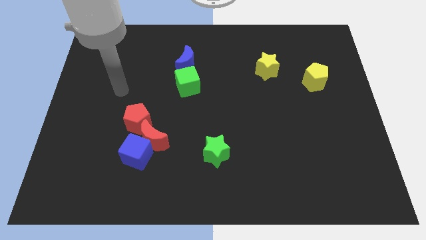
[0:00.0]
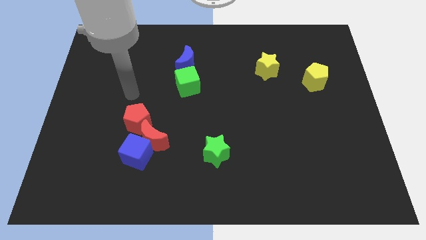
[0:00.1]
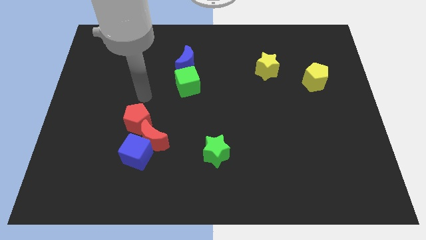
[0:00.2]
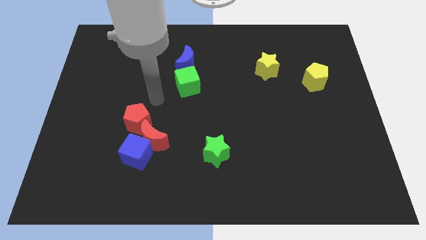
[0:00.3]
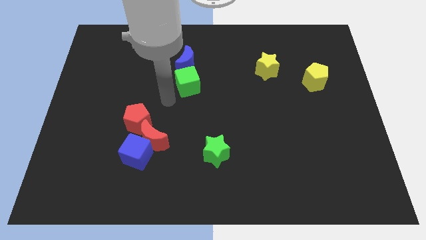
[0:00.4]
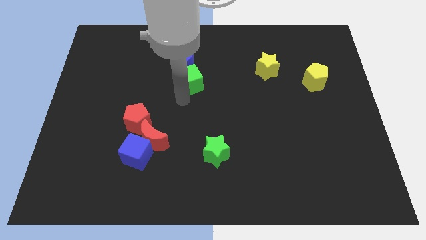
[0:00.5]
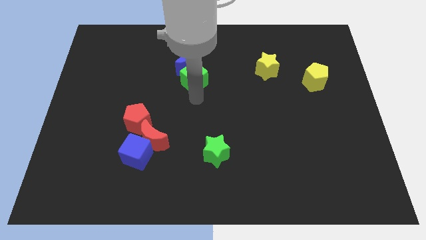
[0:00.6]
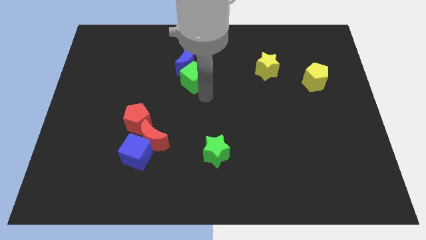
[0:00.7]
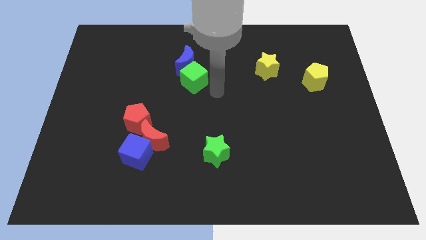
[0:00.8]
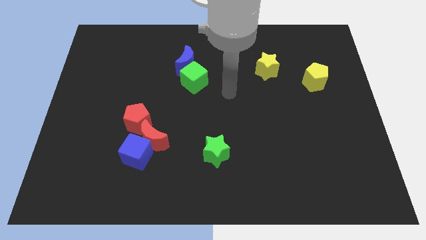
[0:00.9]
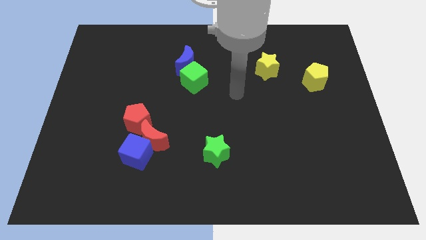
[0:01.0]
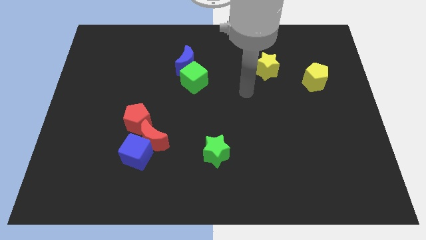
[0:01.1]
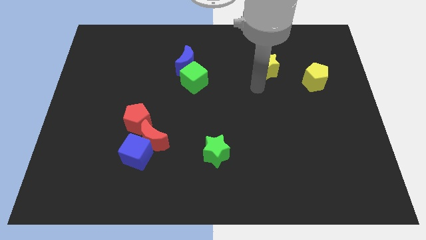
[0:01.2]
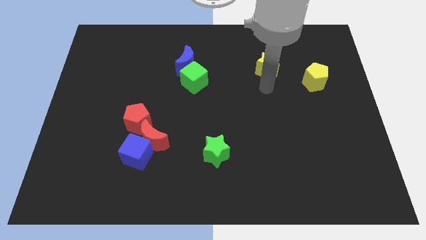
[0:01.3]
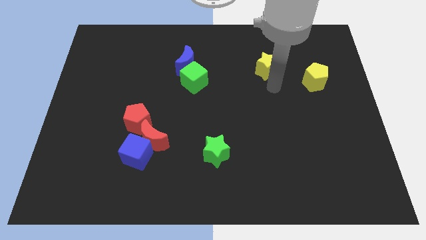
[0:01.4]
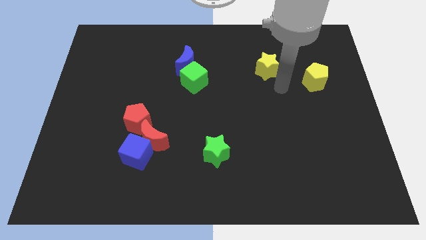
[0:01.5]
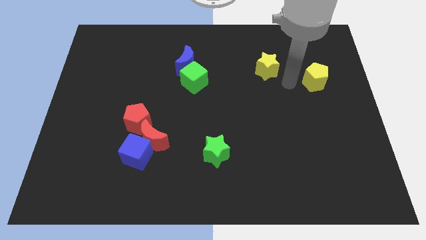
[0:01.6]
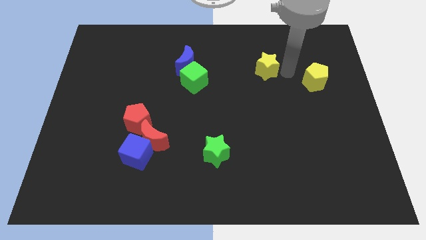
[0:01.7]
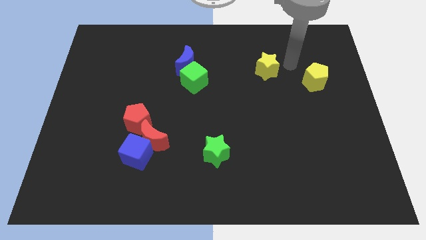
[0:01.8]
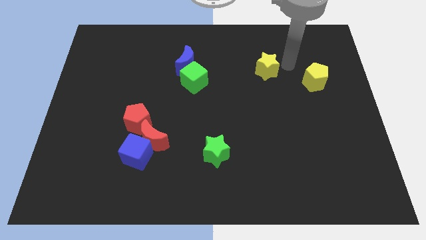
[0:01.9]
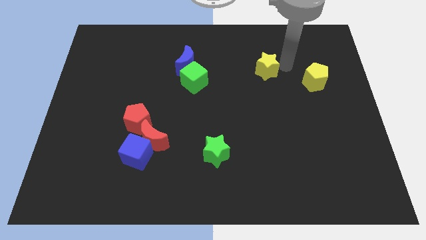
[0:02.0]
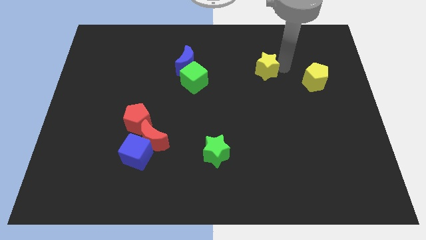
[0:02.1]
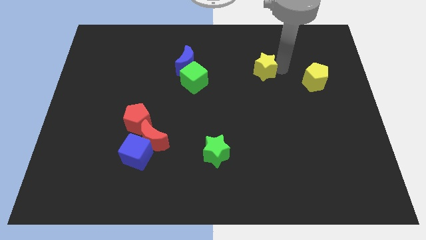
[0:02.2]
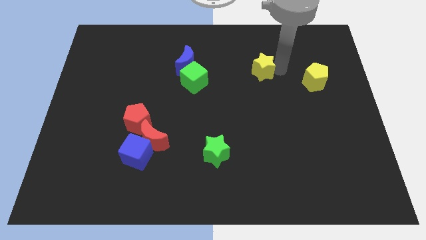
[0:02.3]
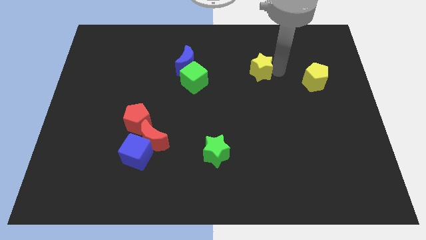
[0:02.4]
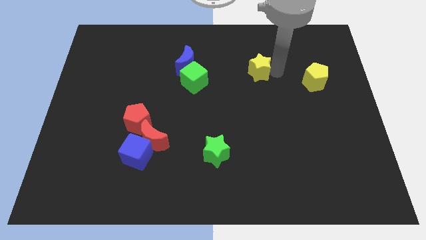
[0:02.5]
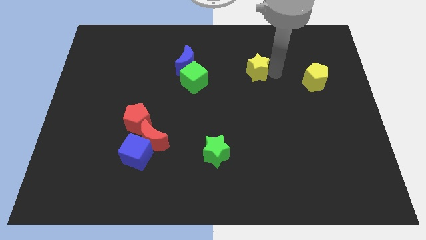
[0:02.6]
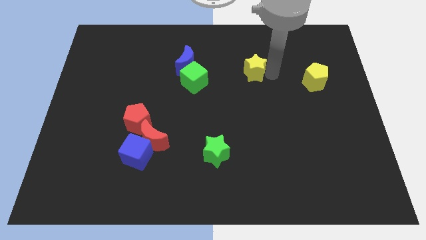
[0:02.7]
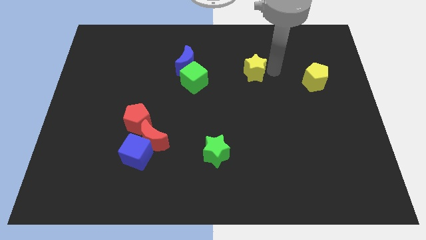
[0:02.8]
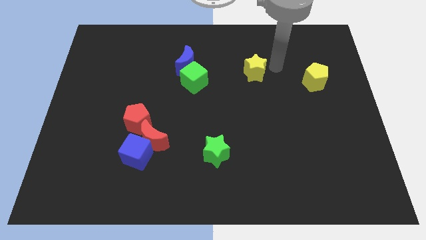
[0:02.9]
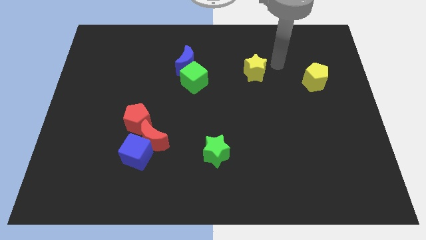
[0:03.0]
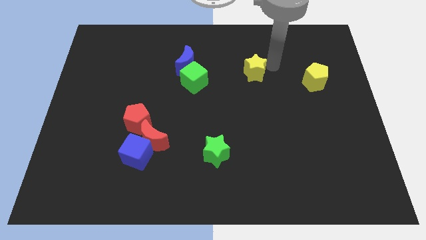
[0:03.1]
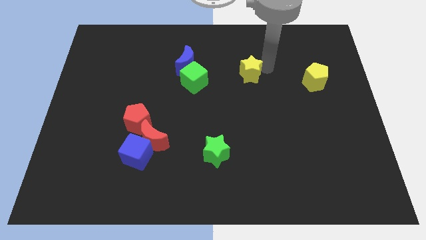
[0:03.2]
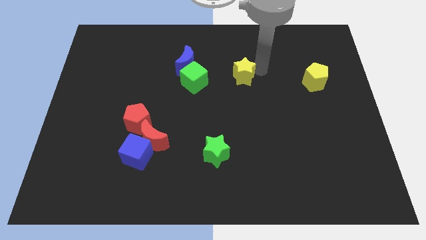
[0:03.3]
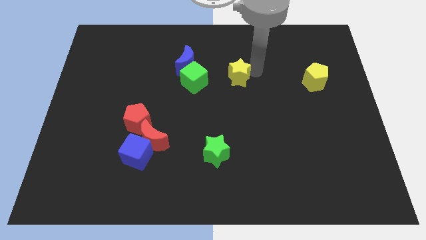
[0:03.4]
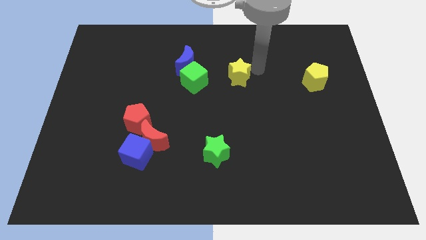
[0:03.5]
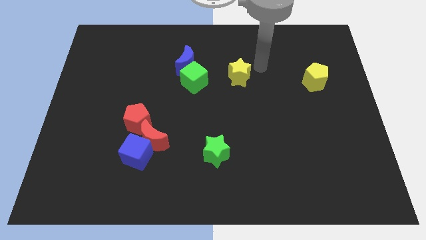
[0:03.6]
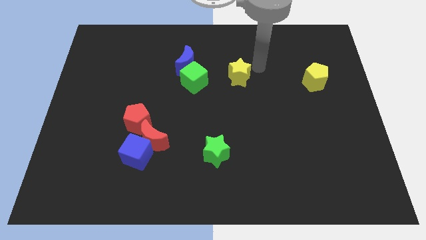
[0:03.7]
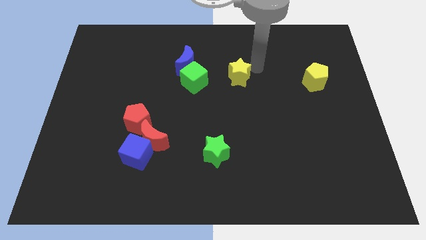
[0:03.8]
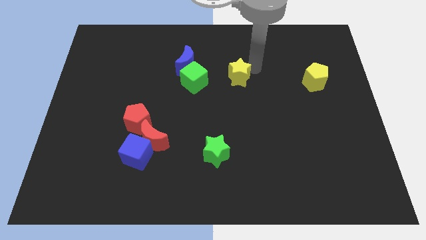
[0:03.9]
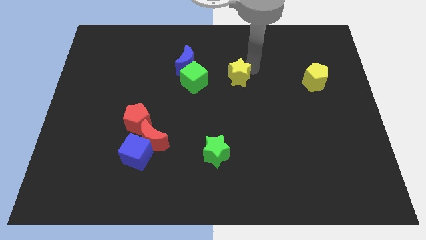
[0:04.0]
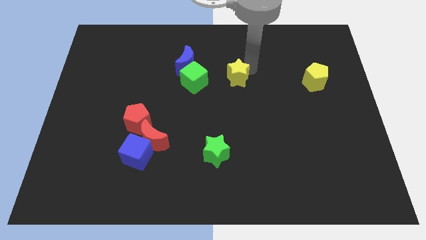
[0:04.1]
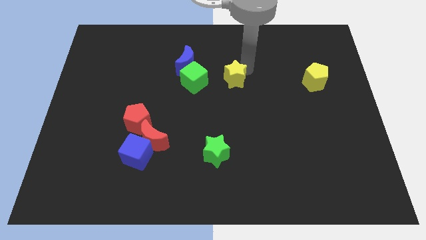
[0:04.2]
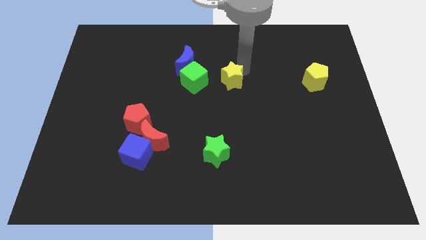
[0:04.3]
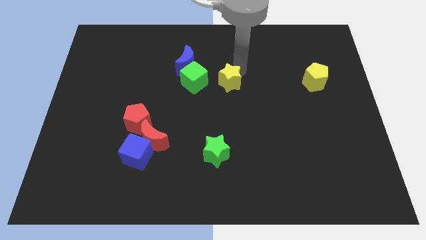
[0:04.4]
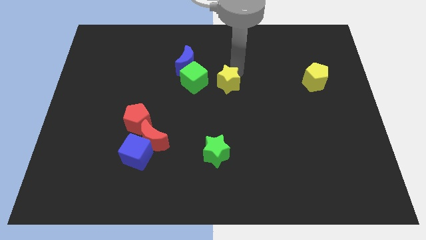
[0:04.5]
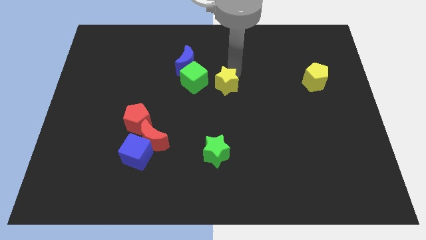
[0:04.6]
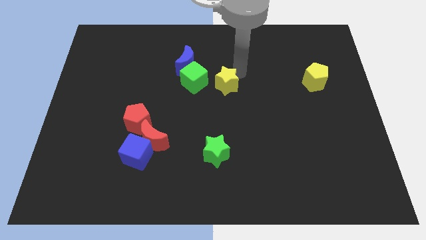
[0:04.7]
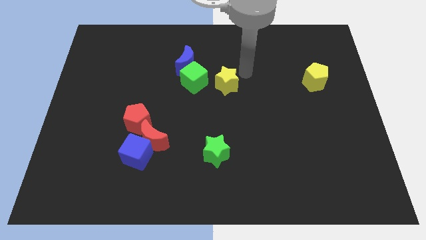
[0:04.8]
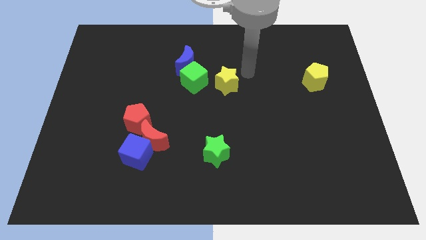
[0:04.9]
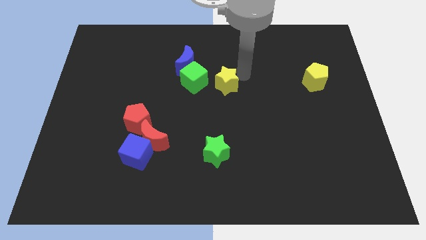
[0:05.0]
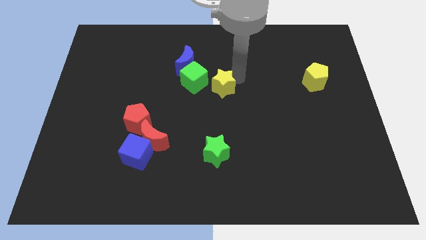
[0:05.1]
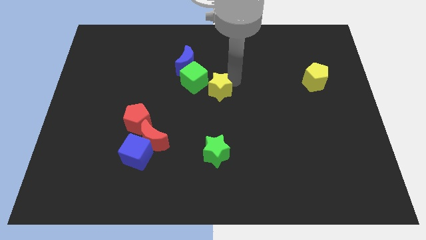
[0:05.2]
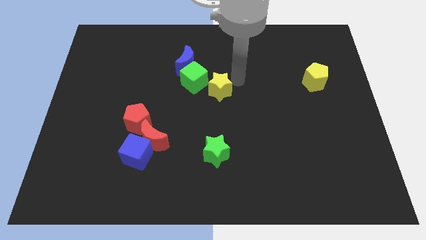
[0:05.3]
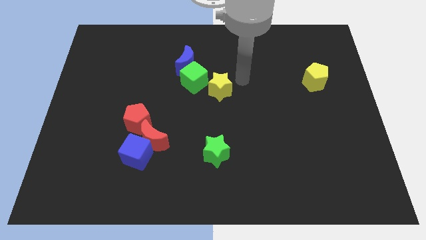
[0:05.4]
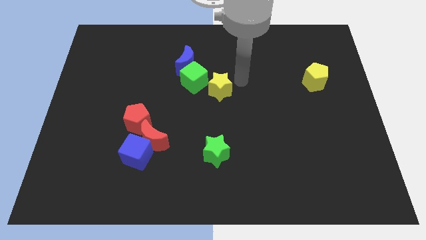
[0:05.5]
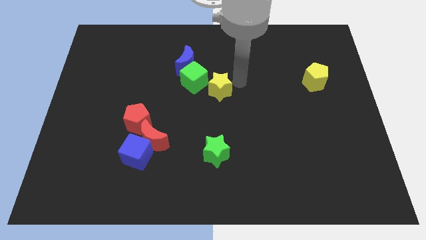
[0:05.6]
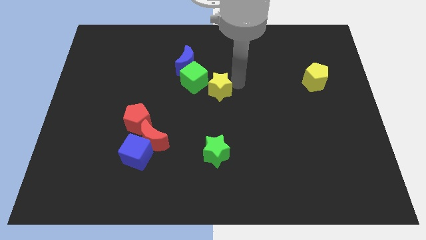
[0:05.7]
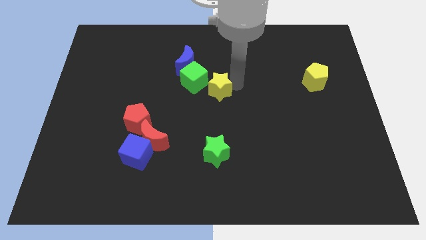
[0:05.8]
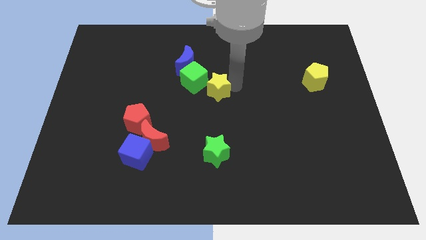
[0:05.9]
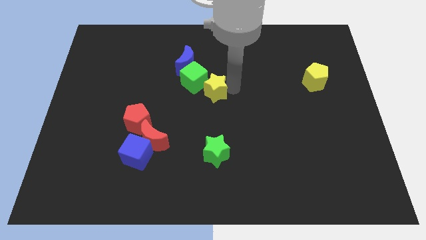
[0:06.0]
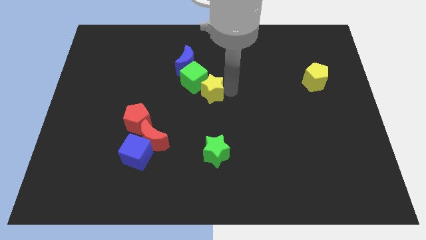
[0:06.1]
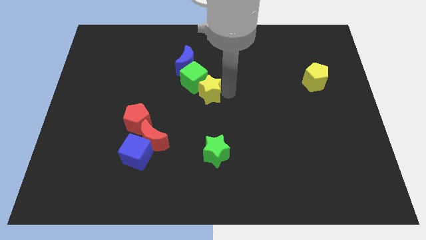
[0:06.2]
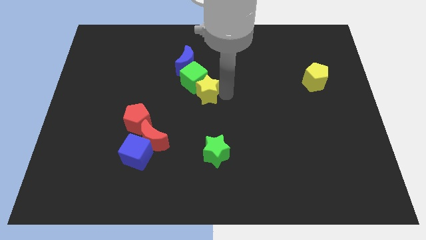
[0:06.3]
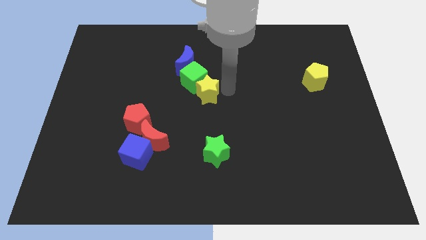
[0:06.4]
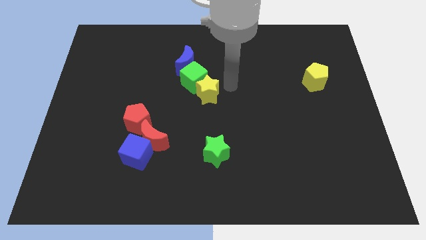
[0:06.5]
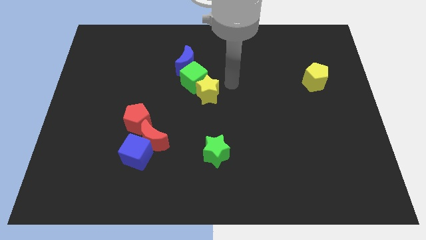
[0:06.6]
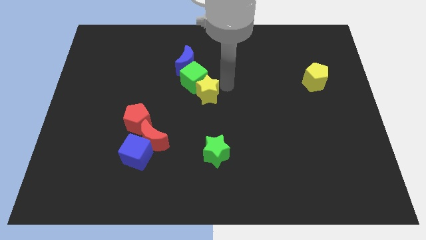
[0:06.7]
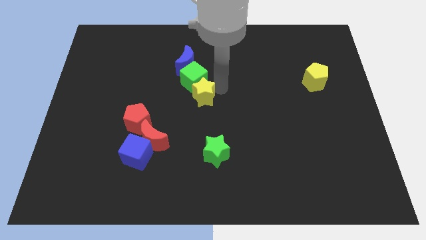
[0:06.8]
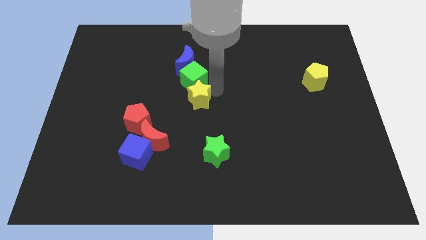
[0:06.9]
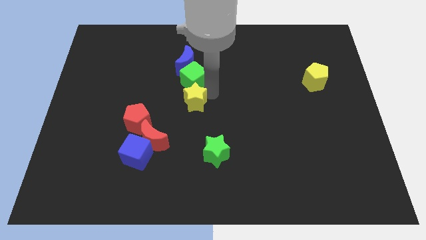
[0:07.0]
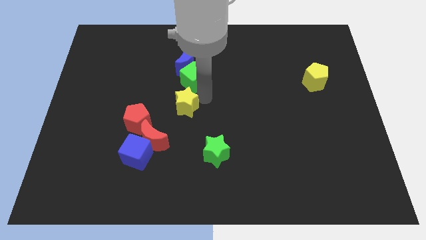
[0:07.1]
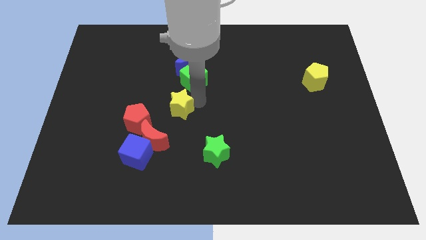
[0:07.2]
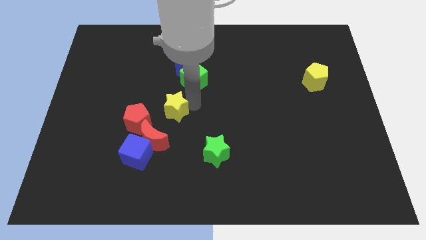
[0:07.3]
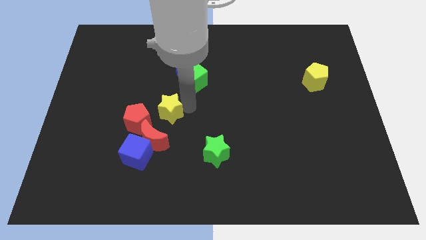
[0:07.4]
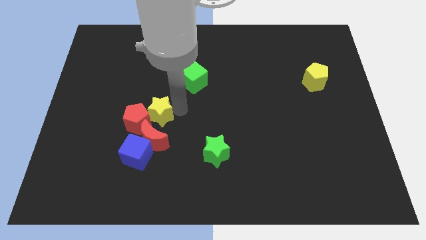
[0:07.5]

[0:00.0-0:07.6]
push the yellow star next to the red pentagon

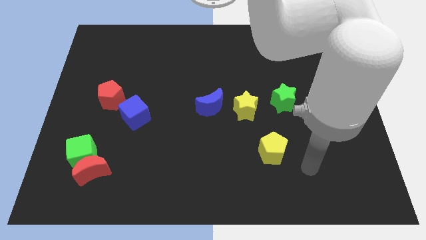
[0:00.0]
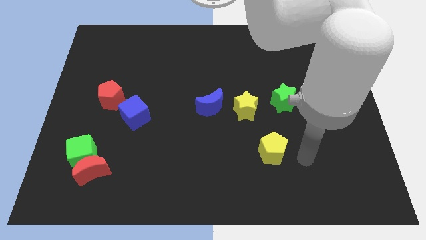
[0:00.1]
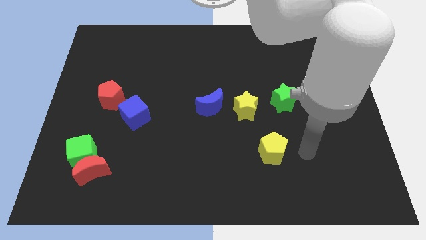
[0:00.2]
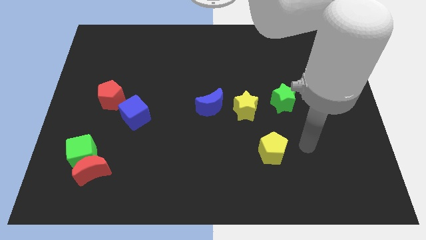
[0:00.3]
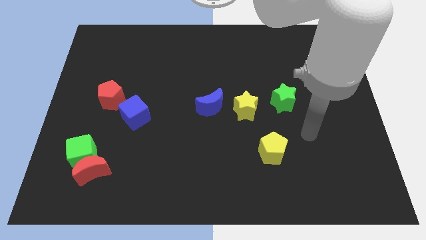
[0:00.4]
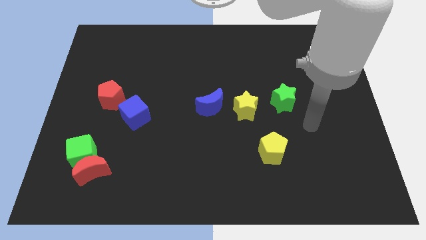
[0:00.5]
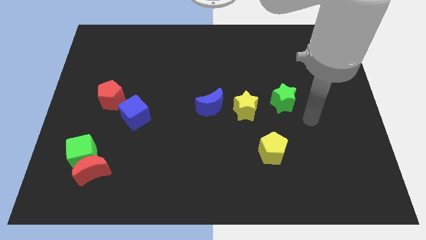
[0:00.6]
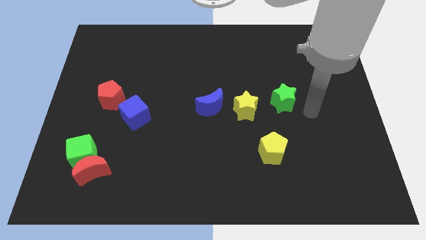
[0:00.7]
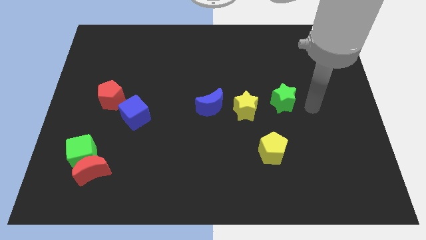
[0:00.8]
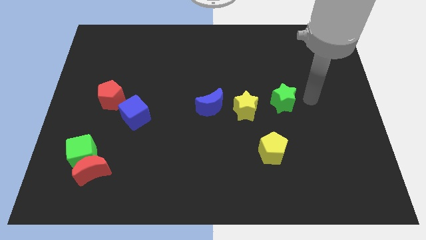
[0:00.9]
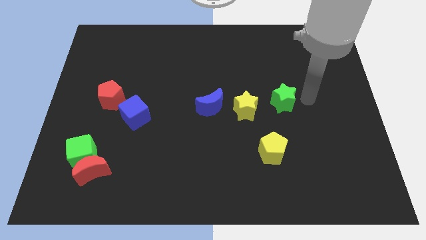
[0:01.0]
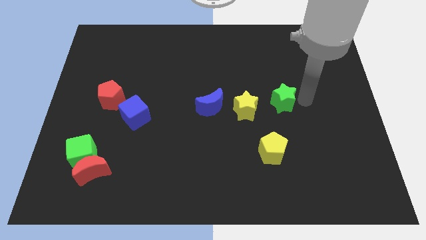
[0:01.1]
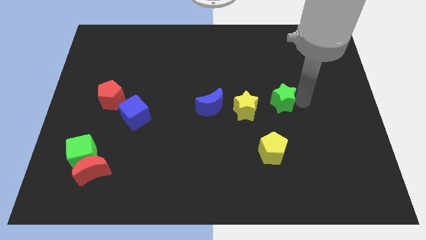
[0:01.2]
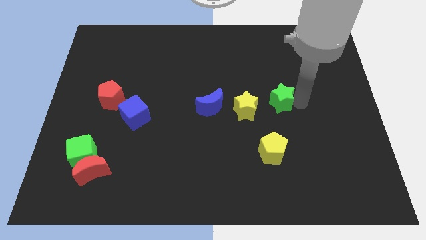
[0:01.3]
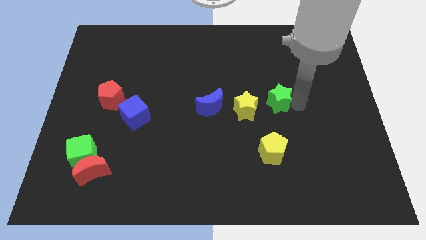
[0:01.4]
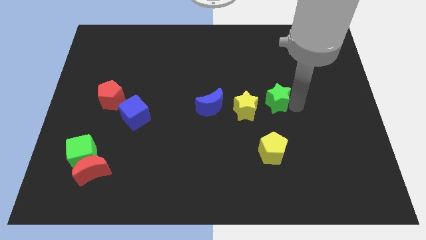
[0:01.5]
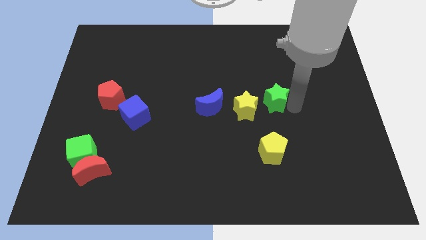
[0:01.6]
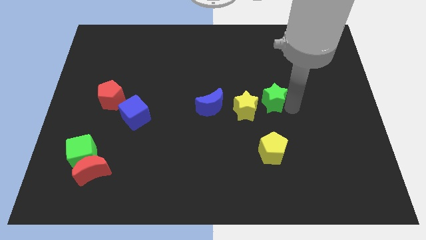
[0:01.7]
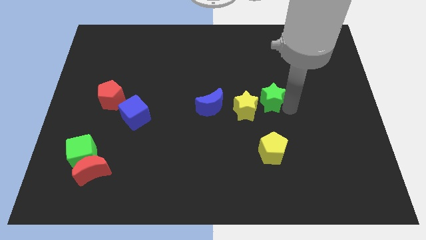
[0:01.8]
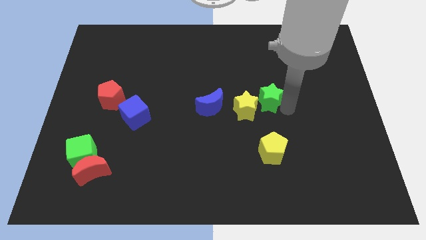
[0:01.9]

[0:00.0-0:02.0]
move the green star towards the yellow star
